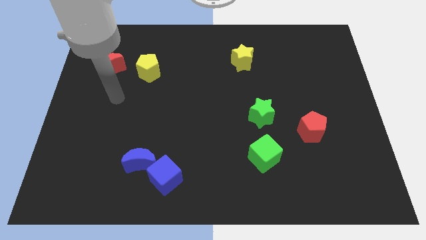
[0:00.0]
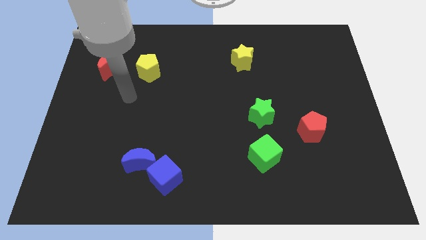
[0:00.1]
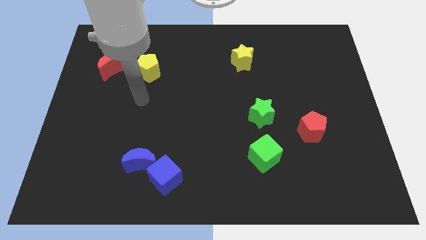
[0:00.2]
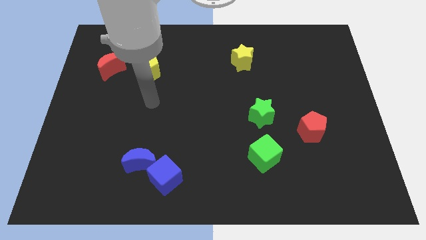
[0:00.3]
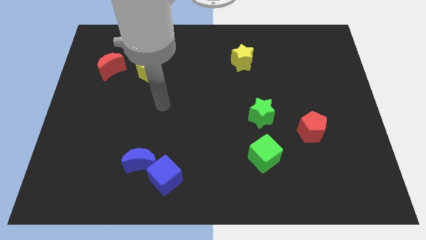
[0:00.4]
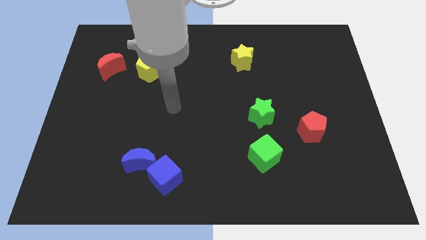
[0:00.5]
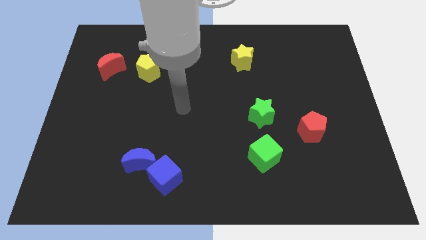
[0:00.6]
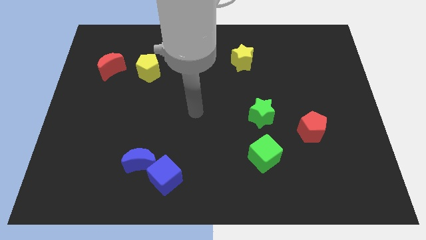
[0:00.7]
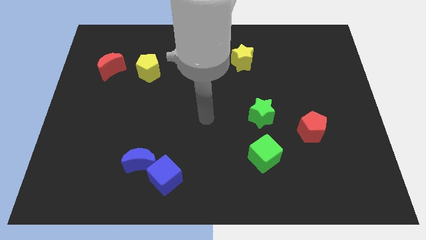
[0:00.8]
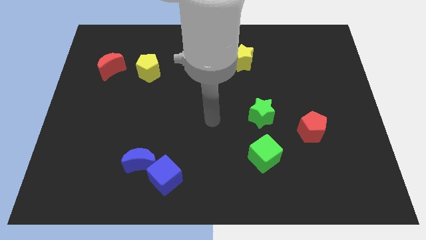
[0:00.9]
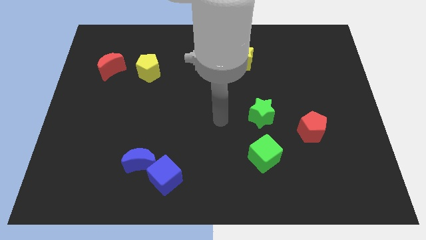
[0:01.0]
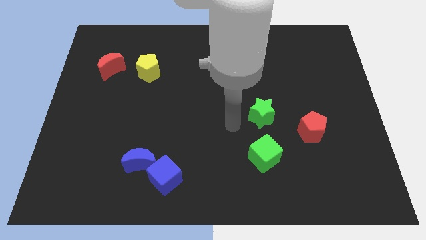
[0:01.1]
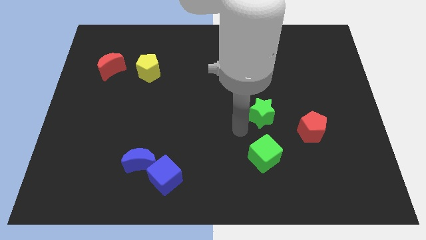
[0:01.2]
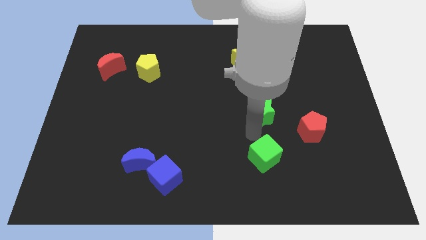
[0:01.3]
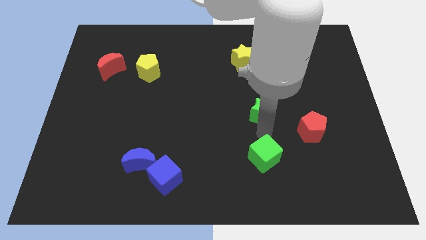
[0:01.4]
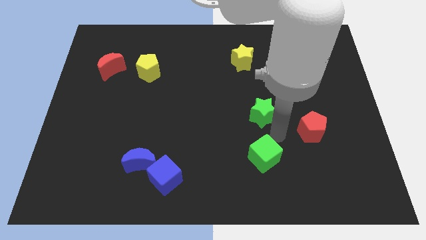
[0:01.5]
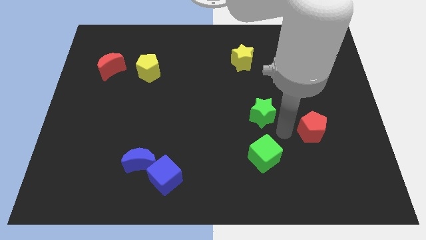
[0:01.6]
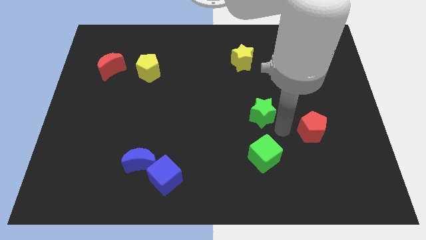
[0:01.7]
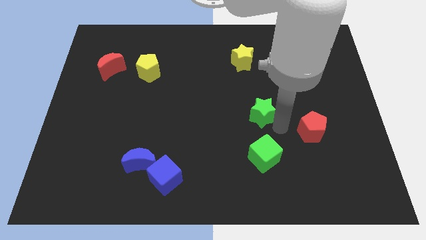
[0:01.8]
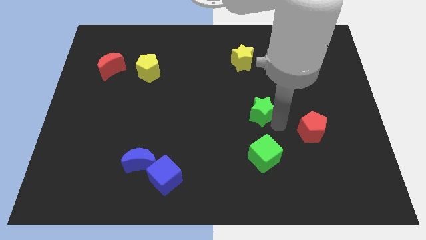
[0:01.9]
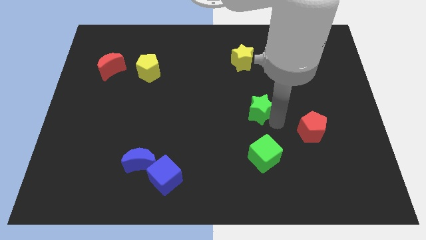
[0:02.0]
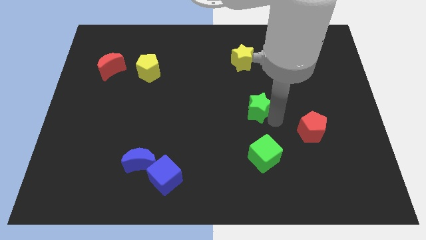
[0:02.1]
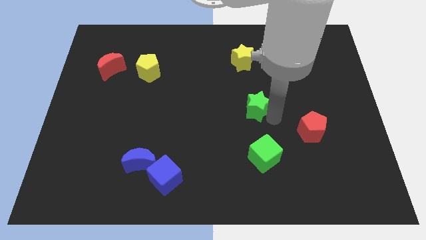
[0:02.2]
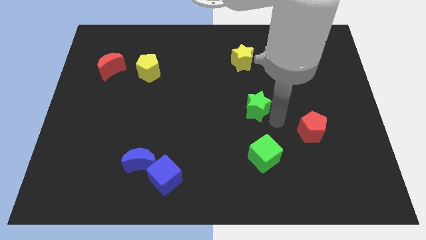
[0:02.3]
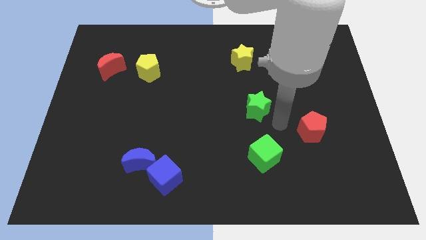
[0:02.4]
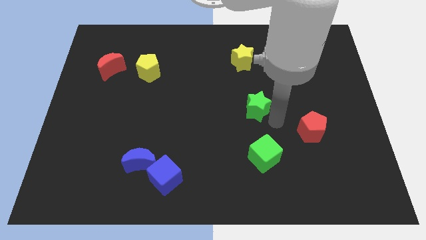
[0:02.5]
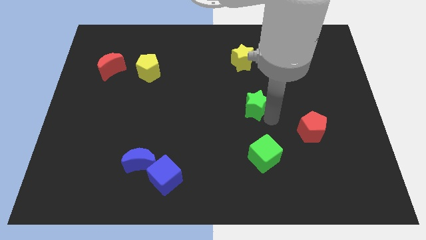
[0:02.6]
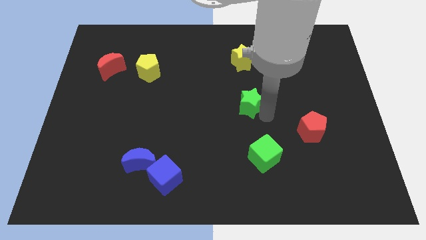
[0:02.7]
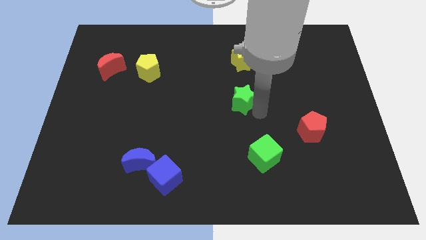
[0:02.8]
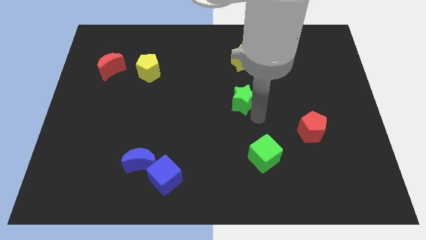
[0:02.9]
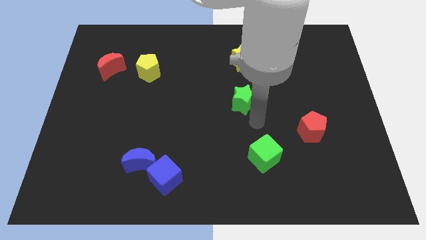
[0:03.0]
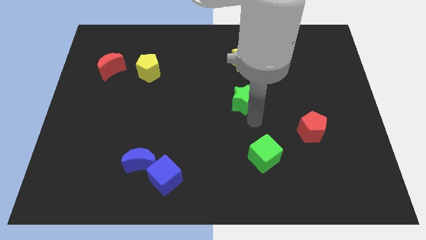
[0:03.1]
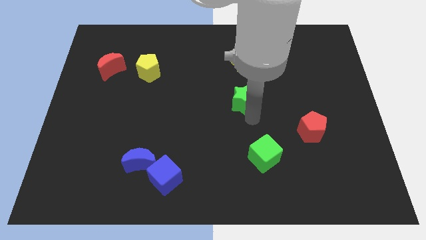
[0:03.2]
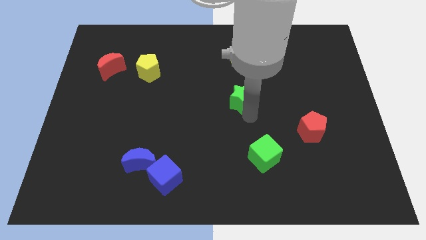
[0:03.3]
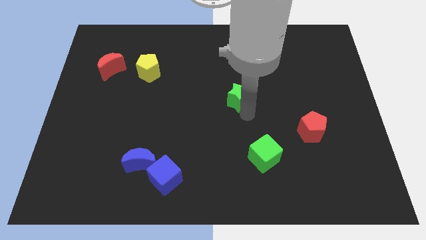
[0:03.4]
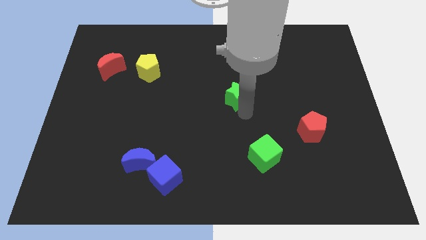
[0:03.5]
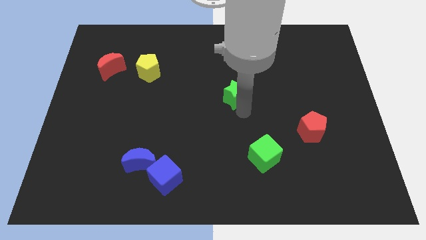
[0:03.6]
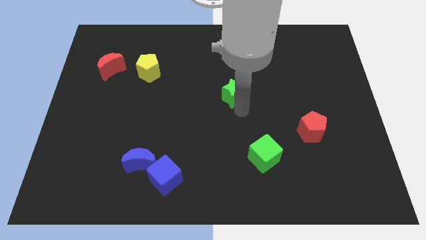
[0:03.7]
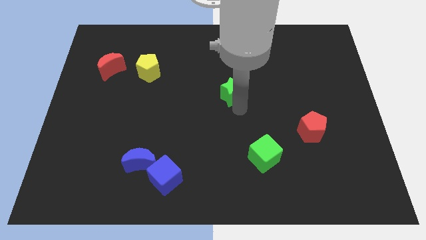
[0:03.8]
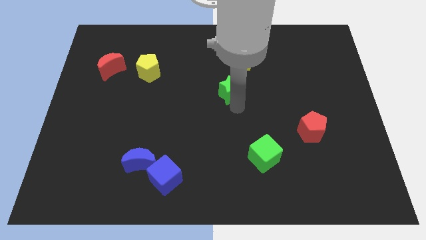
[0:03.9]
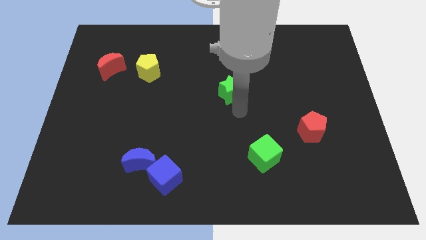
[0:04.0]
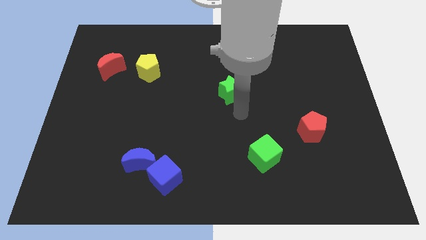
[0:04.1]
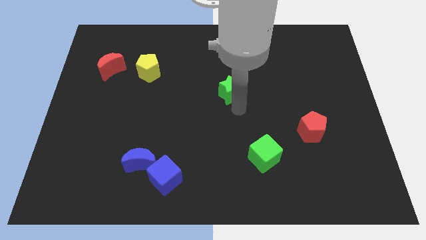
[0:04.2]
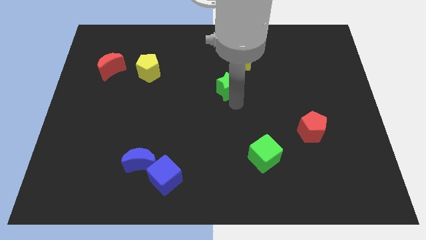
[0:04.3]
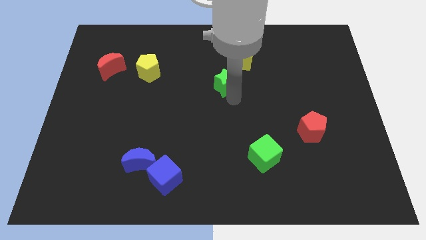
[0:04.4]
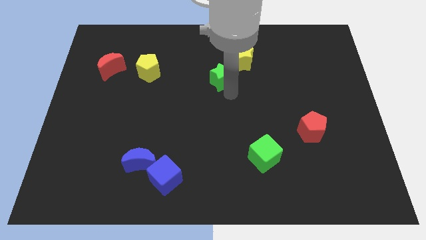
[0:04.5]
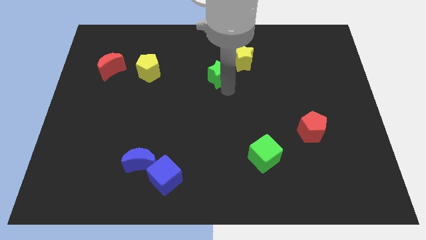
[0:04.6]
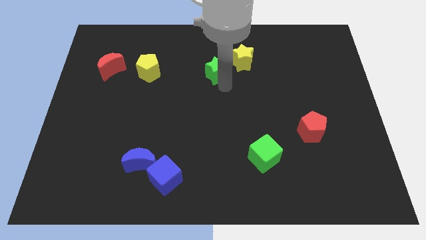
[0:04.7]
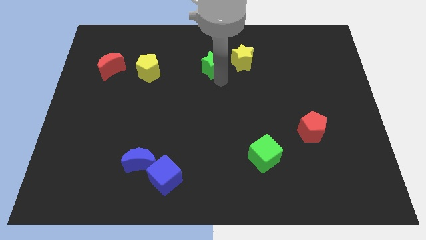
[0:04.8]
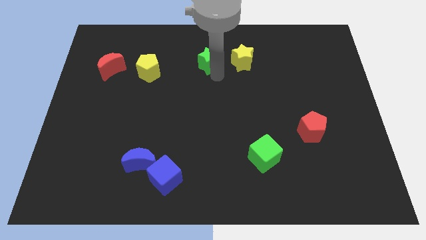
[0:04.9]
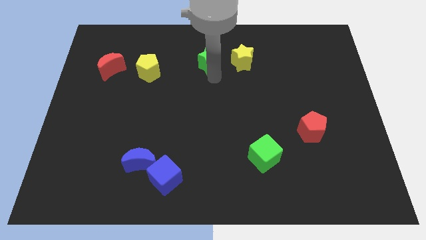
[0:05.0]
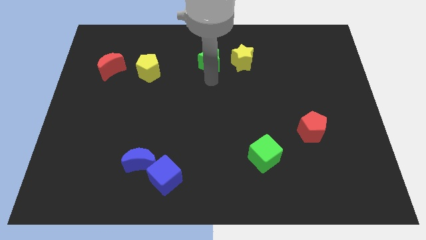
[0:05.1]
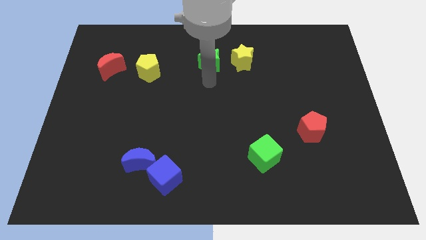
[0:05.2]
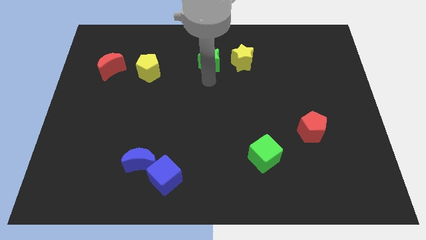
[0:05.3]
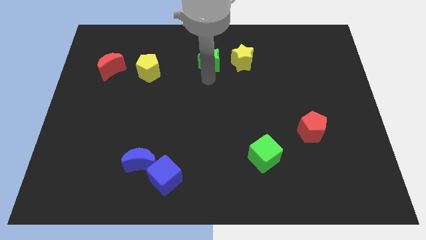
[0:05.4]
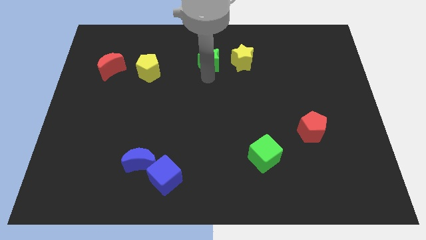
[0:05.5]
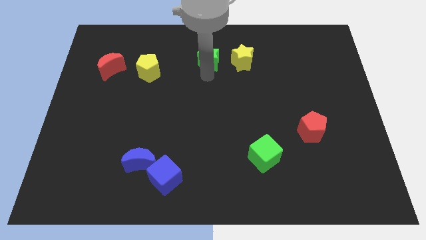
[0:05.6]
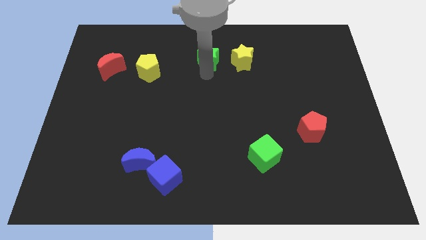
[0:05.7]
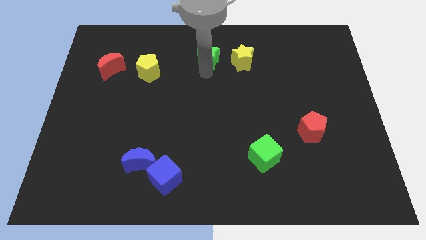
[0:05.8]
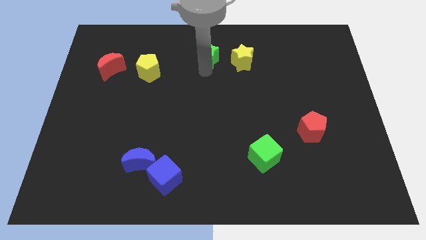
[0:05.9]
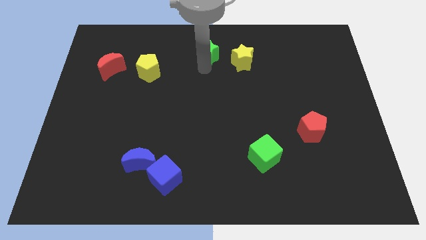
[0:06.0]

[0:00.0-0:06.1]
put the green star to the top

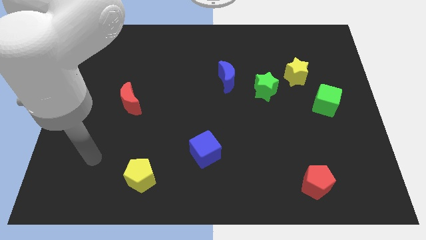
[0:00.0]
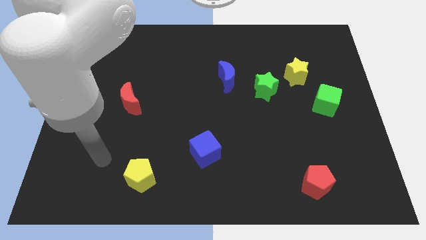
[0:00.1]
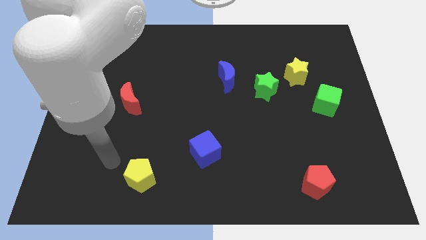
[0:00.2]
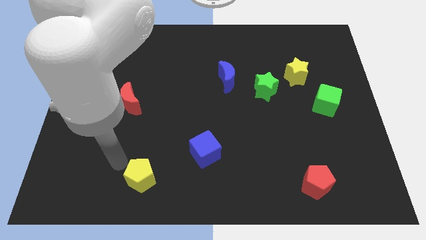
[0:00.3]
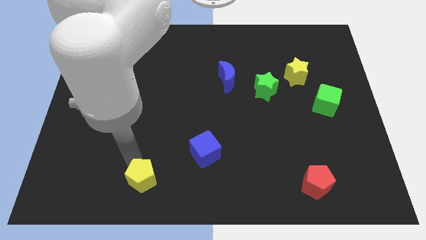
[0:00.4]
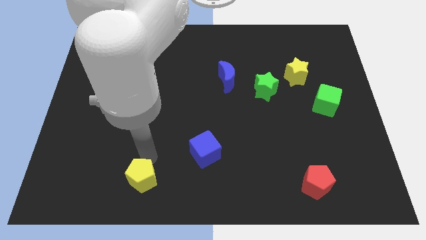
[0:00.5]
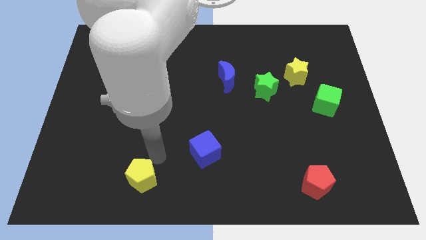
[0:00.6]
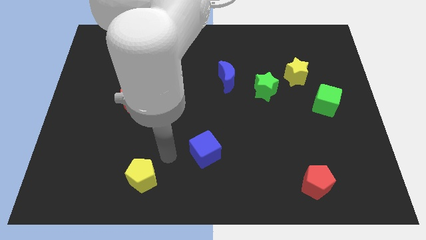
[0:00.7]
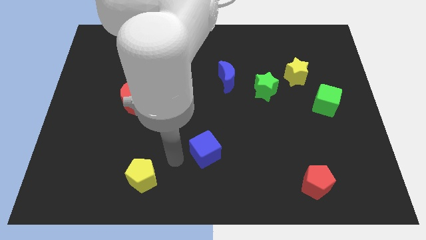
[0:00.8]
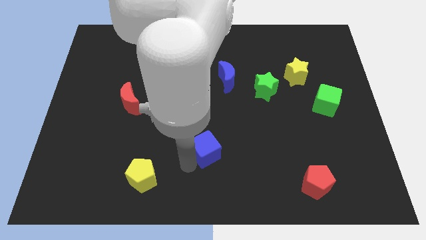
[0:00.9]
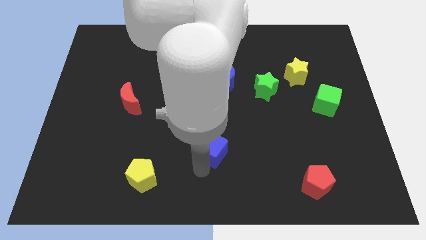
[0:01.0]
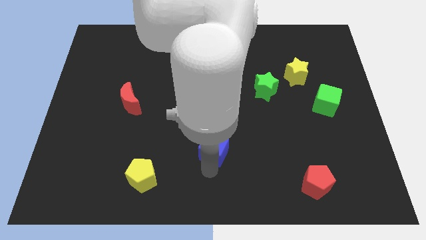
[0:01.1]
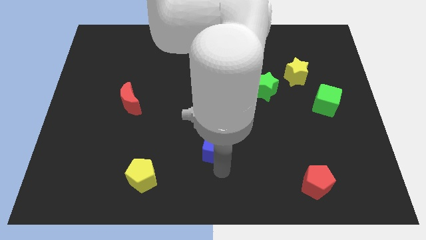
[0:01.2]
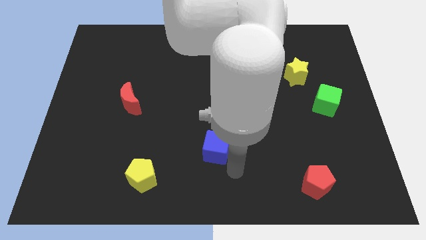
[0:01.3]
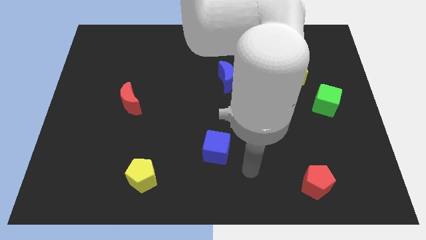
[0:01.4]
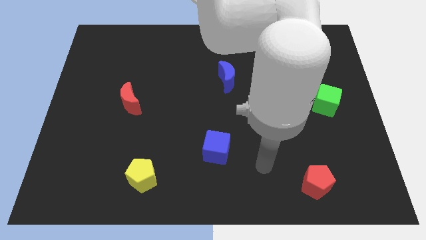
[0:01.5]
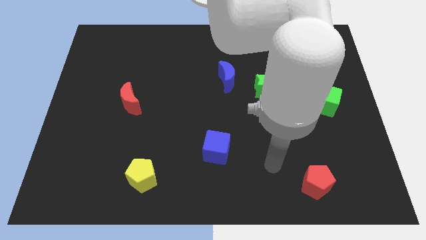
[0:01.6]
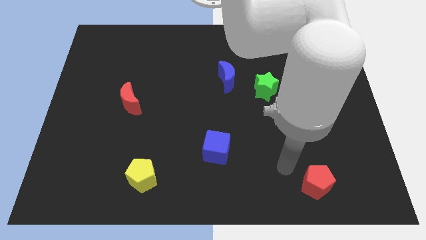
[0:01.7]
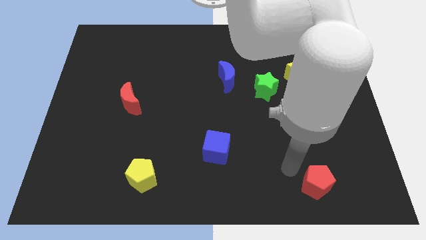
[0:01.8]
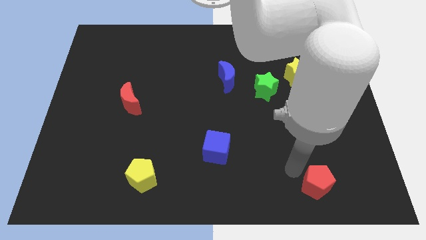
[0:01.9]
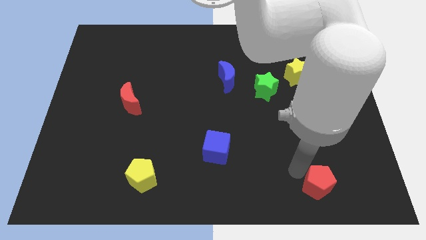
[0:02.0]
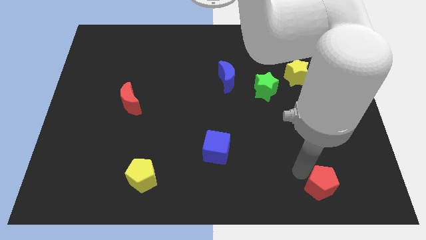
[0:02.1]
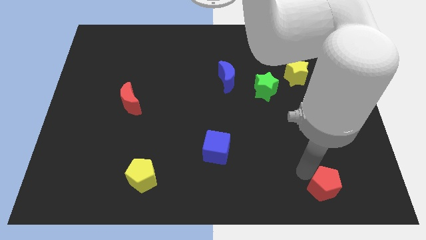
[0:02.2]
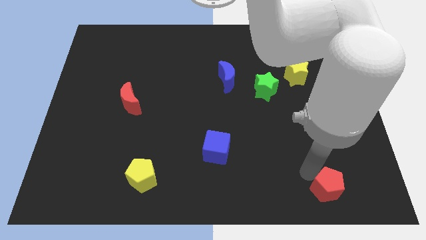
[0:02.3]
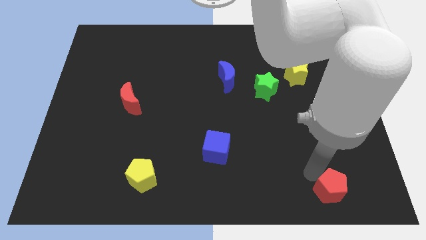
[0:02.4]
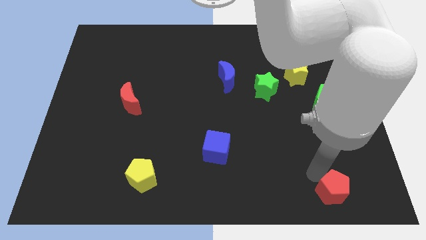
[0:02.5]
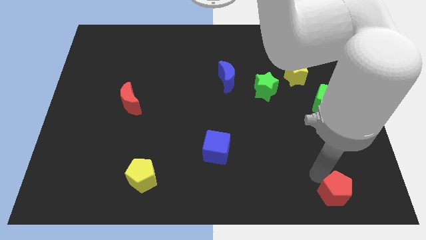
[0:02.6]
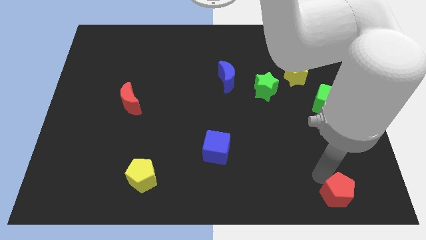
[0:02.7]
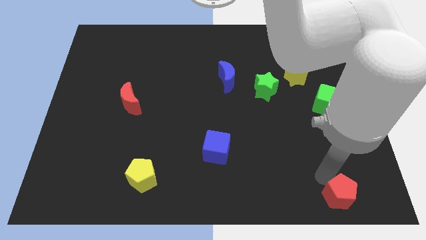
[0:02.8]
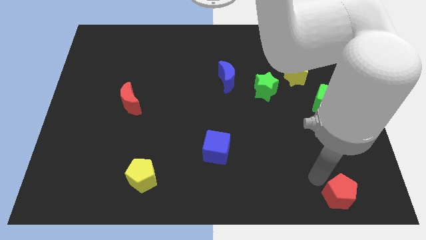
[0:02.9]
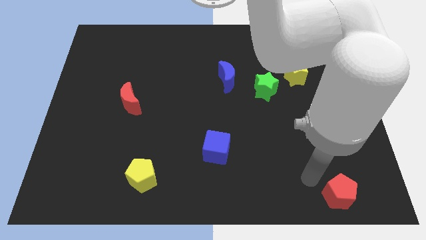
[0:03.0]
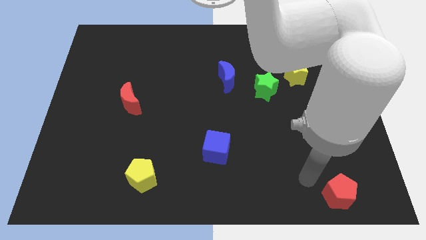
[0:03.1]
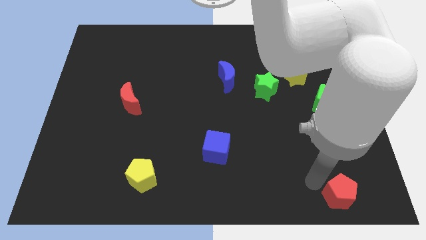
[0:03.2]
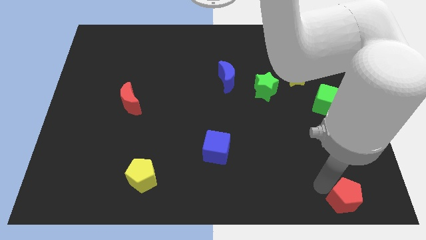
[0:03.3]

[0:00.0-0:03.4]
push the red pentagon to the lower right corner
